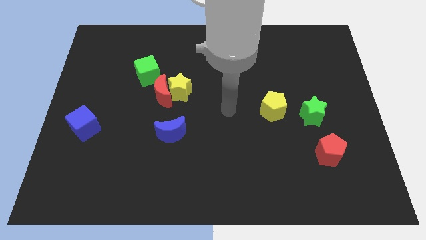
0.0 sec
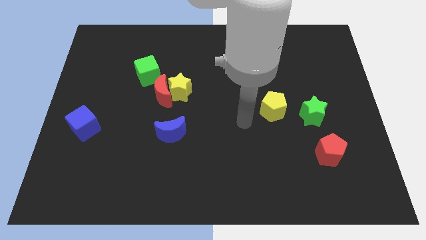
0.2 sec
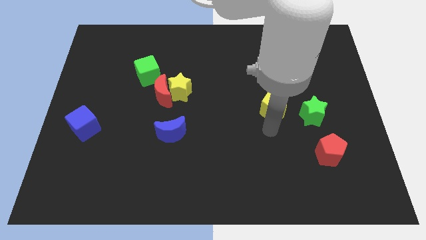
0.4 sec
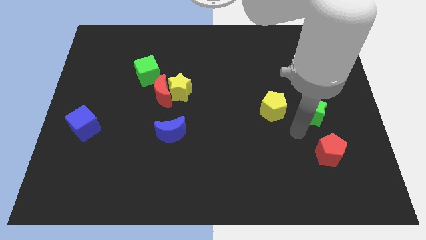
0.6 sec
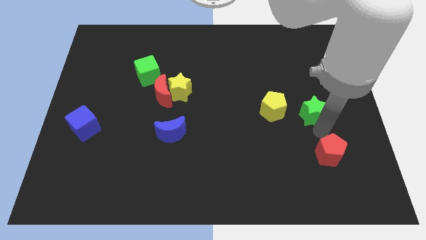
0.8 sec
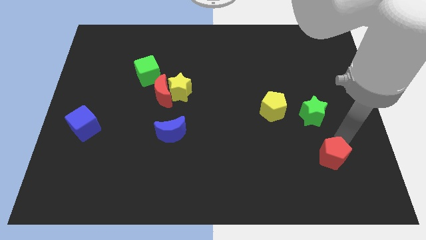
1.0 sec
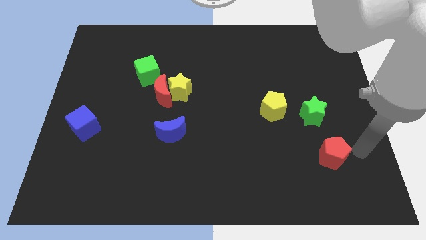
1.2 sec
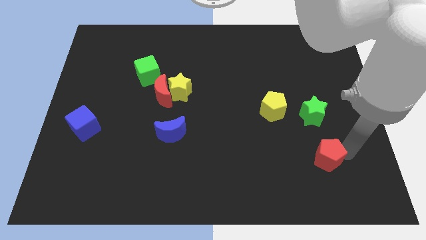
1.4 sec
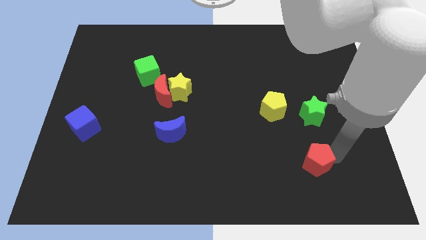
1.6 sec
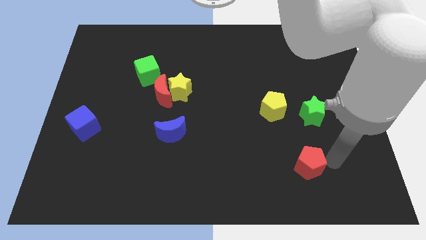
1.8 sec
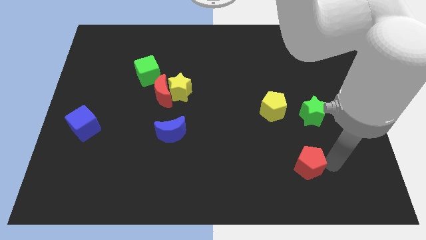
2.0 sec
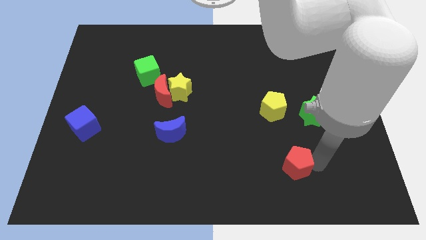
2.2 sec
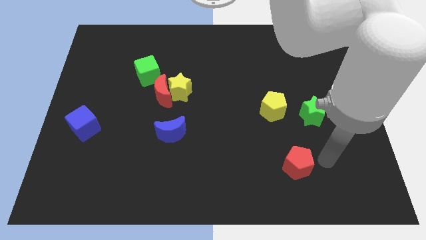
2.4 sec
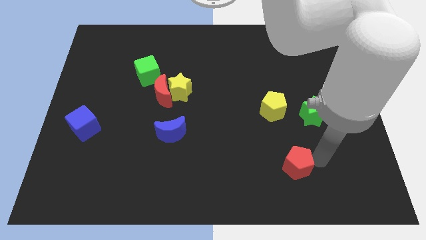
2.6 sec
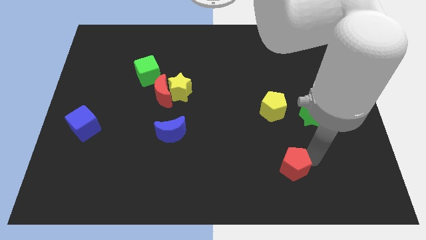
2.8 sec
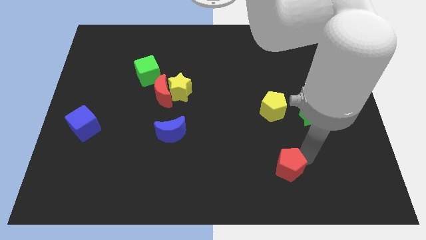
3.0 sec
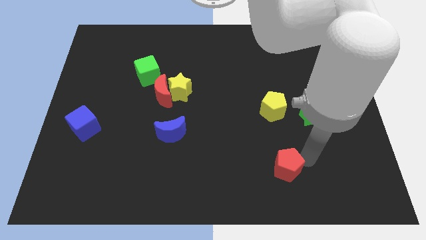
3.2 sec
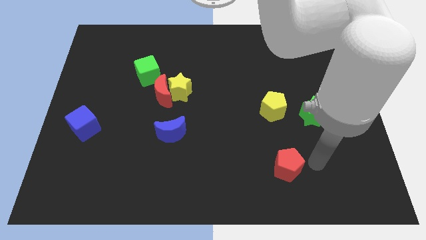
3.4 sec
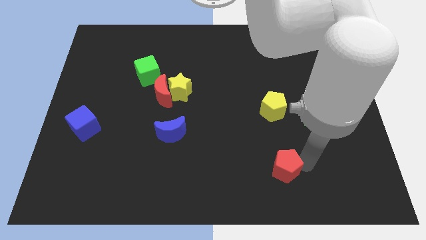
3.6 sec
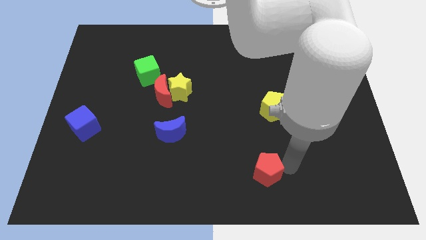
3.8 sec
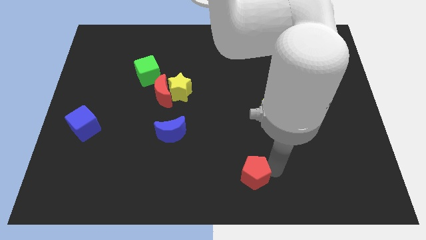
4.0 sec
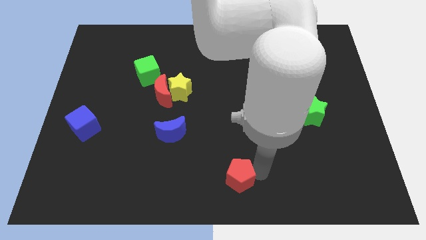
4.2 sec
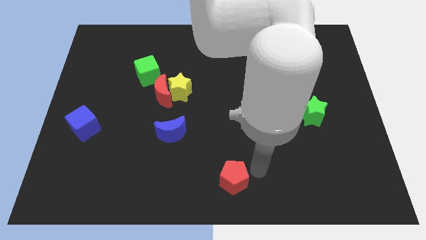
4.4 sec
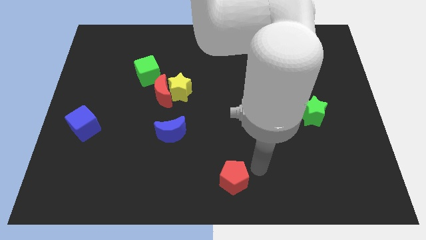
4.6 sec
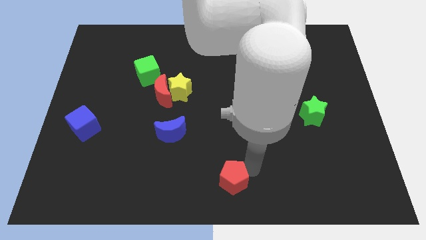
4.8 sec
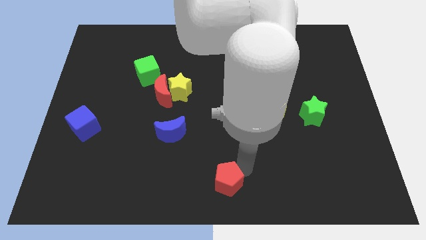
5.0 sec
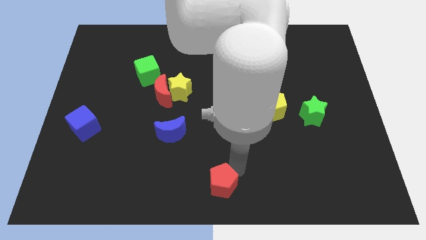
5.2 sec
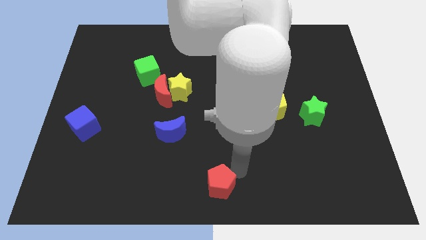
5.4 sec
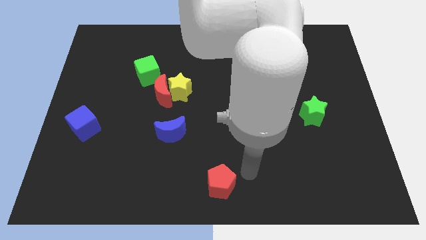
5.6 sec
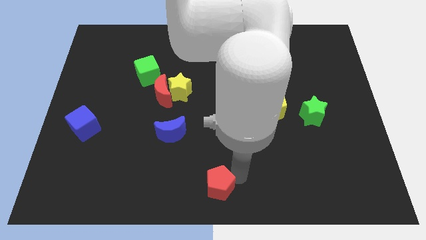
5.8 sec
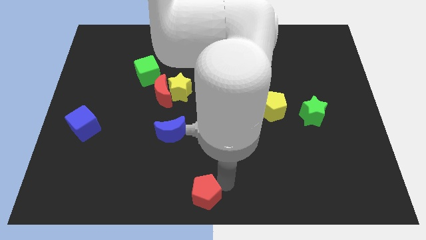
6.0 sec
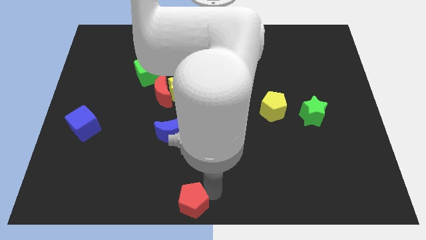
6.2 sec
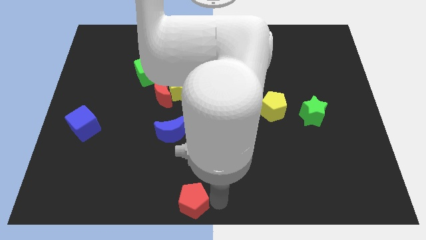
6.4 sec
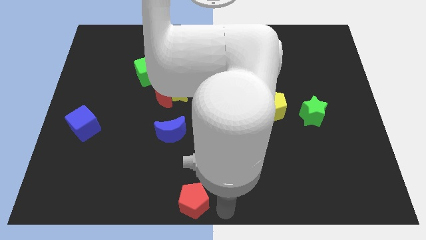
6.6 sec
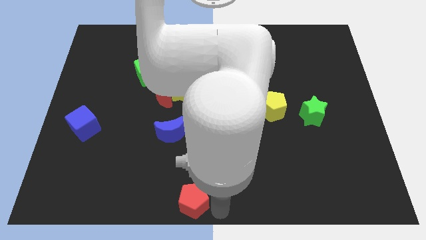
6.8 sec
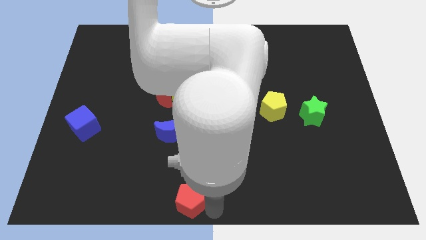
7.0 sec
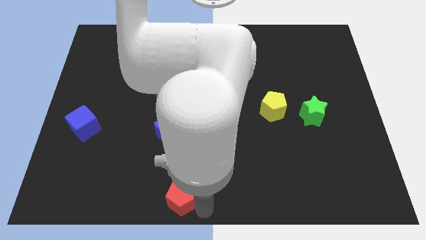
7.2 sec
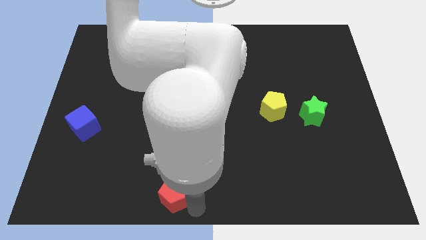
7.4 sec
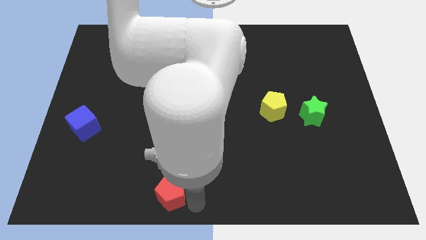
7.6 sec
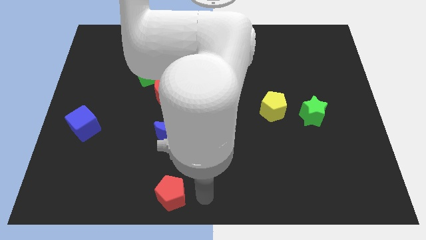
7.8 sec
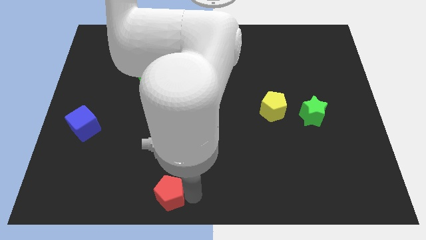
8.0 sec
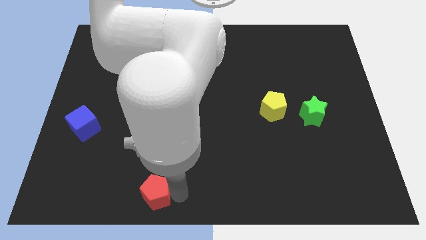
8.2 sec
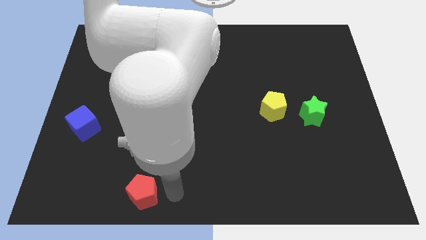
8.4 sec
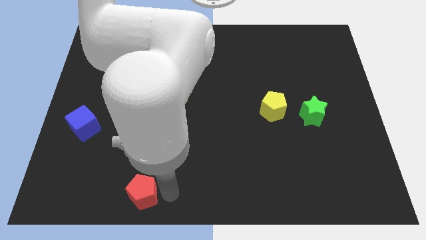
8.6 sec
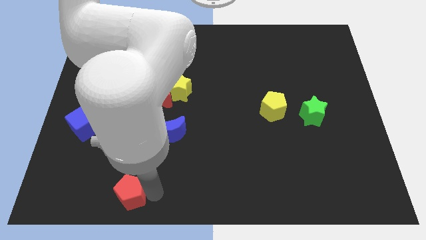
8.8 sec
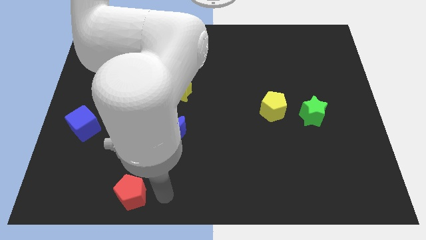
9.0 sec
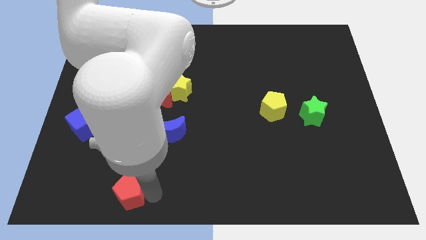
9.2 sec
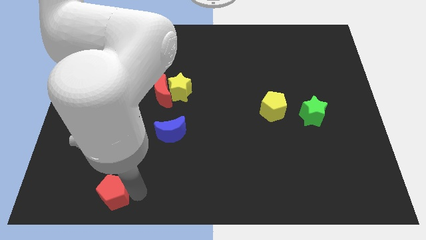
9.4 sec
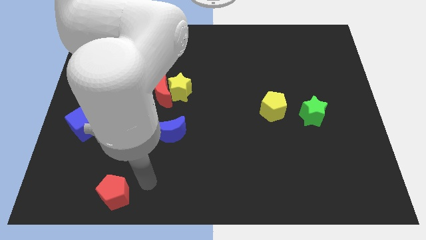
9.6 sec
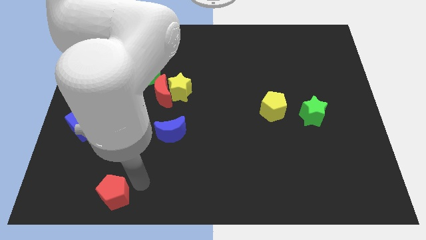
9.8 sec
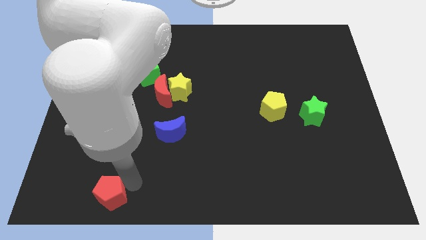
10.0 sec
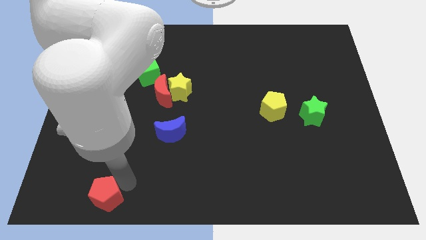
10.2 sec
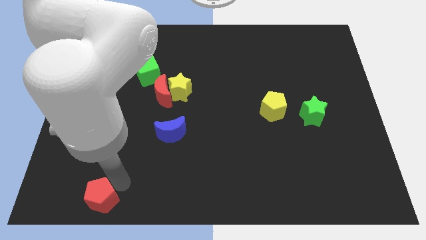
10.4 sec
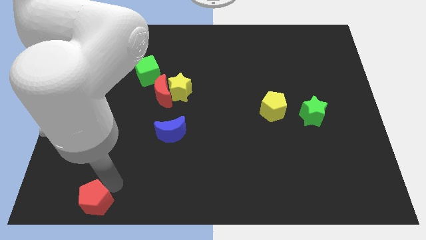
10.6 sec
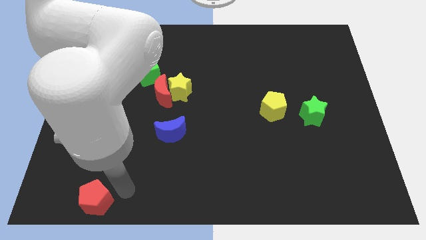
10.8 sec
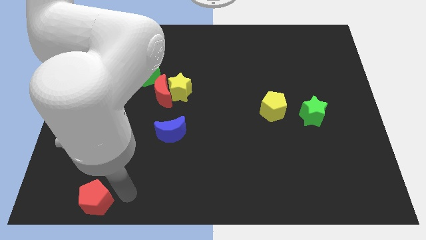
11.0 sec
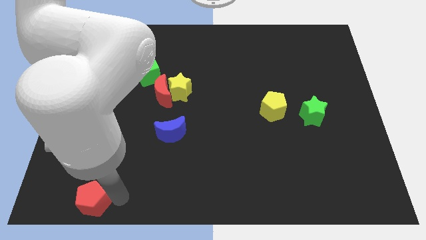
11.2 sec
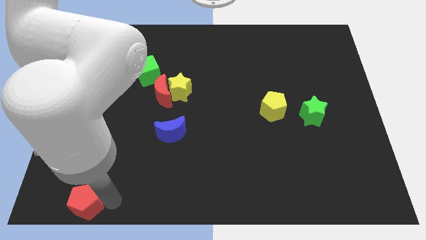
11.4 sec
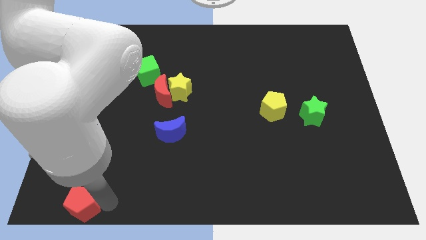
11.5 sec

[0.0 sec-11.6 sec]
put the red pentagon to the lower left corner
